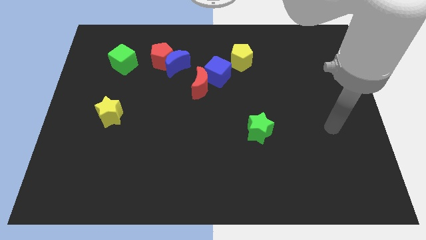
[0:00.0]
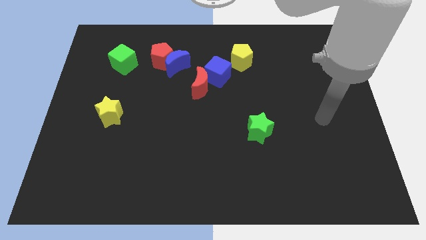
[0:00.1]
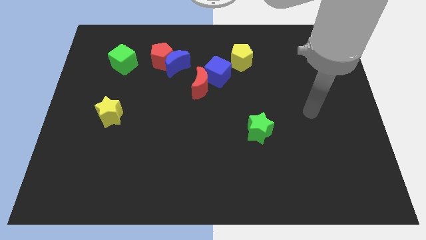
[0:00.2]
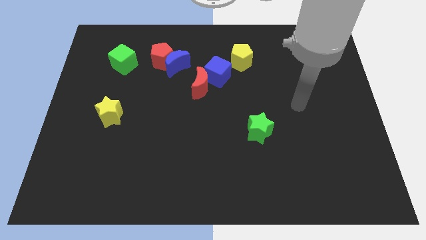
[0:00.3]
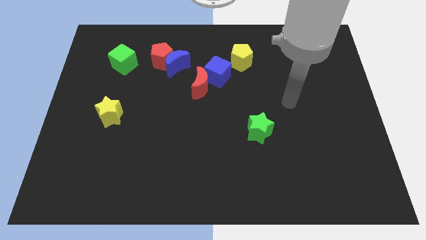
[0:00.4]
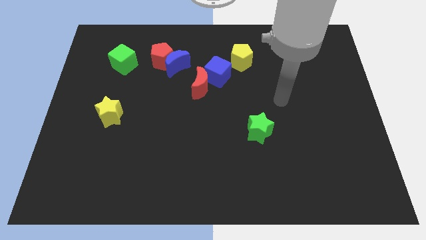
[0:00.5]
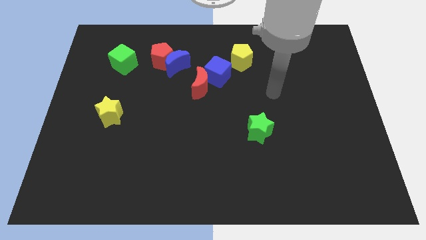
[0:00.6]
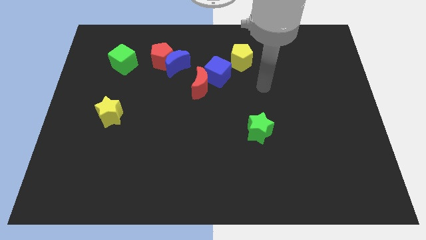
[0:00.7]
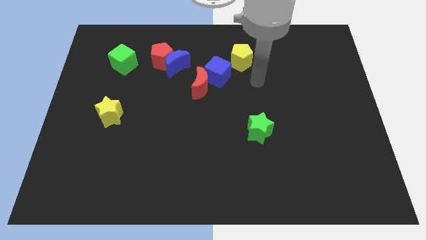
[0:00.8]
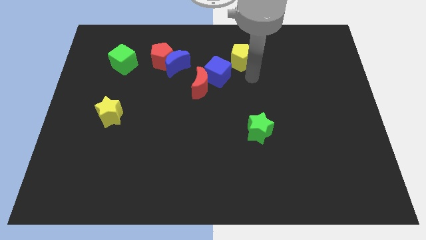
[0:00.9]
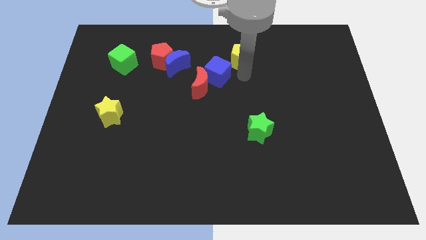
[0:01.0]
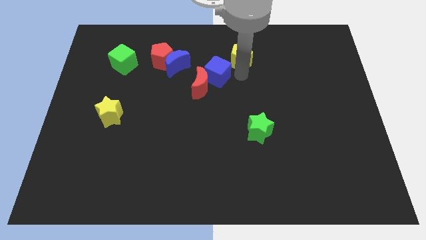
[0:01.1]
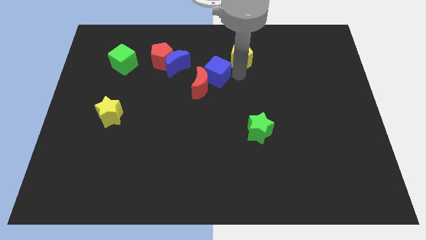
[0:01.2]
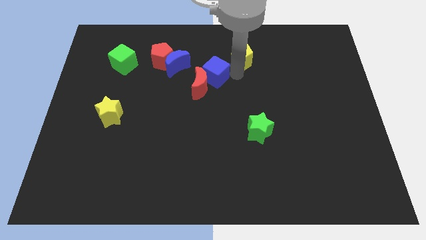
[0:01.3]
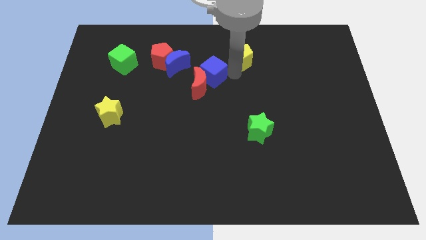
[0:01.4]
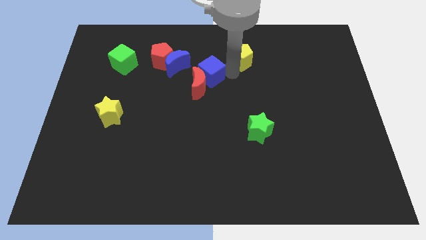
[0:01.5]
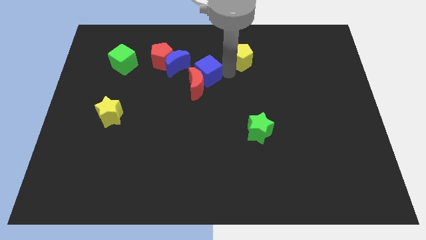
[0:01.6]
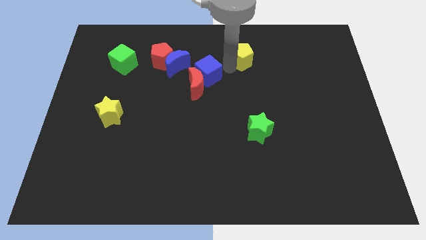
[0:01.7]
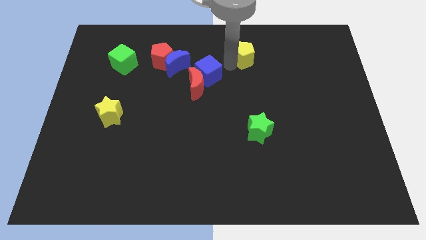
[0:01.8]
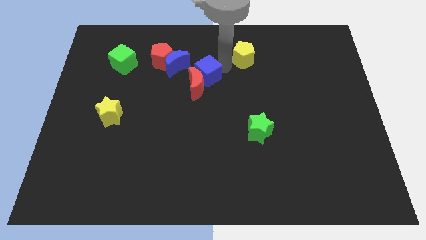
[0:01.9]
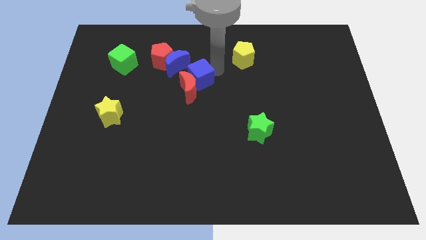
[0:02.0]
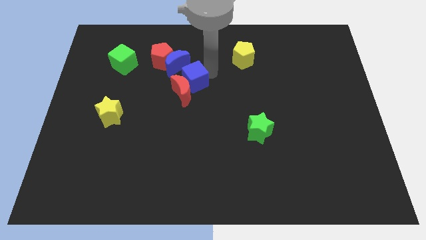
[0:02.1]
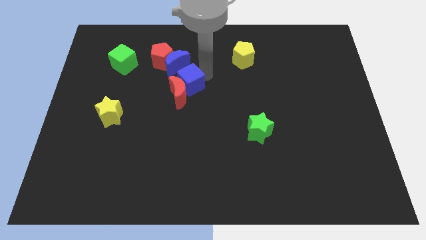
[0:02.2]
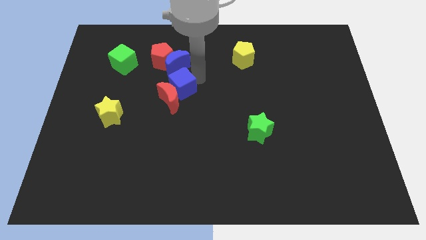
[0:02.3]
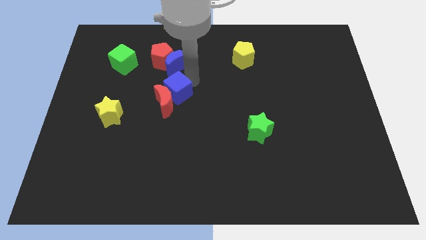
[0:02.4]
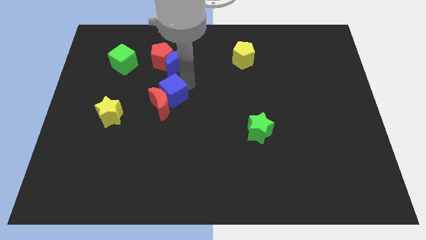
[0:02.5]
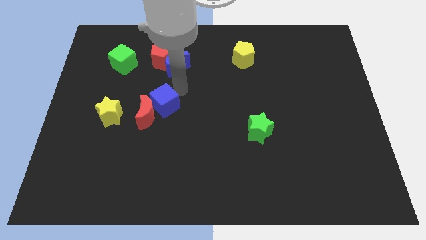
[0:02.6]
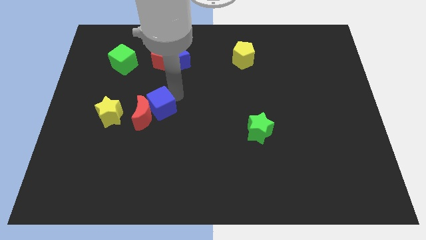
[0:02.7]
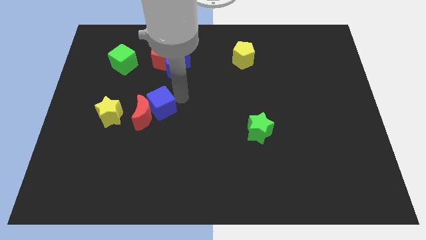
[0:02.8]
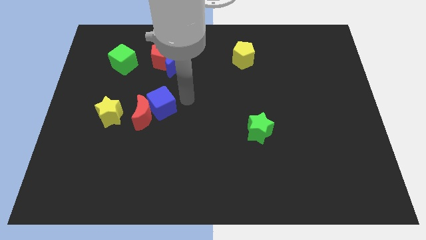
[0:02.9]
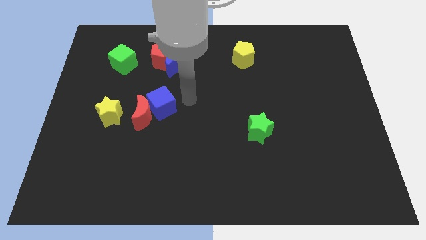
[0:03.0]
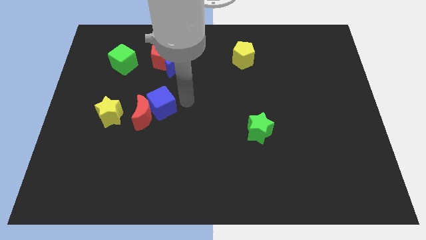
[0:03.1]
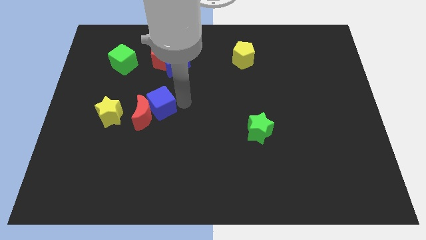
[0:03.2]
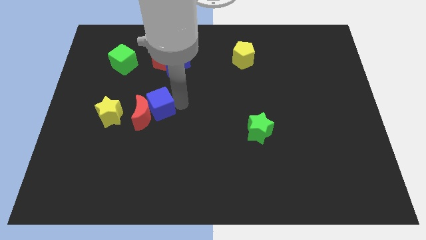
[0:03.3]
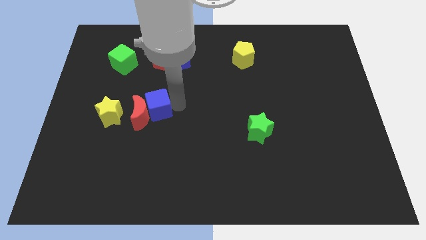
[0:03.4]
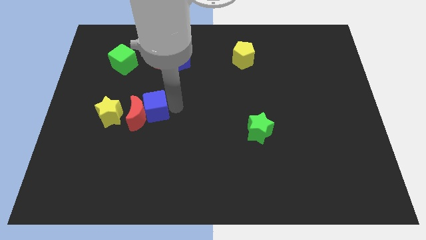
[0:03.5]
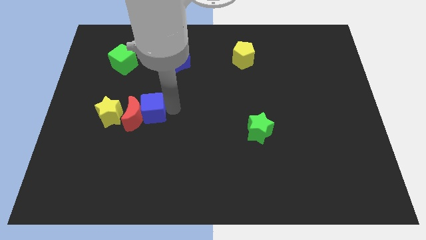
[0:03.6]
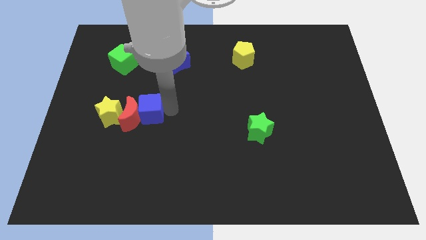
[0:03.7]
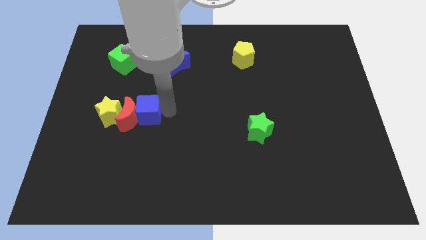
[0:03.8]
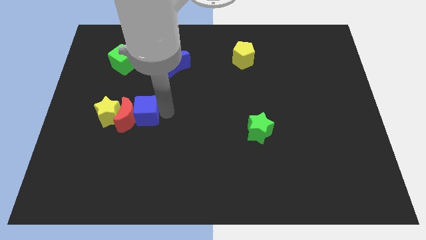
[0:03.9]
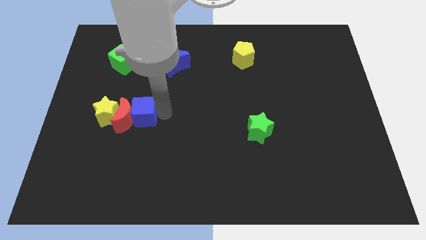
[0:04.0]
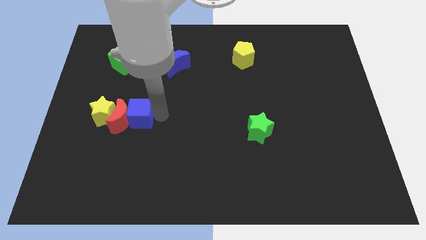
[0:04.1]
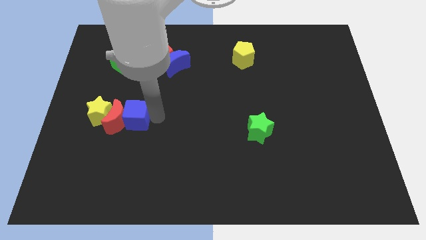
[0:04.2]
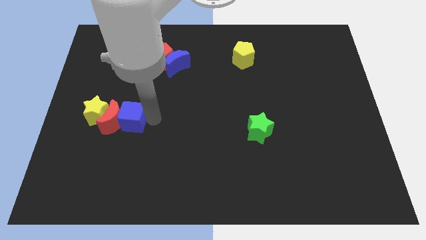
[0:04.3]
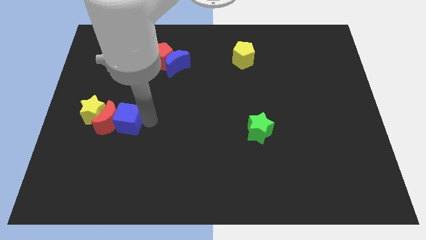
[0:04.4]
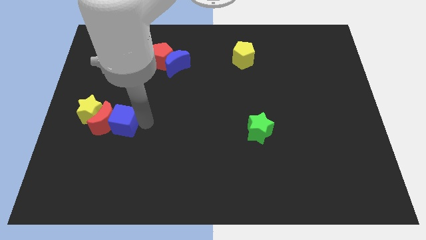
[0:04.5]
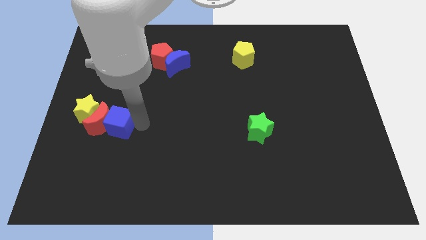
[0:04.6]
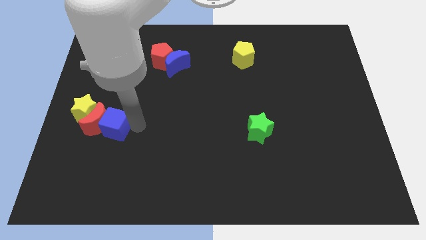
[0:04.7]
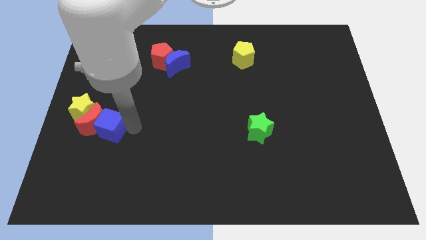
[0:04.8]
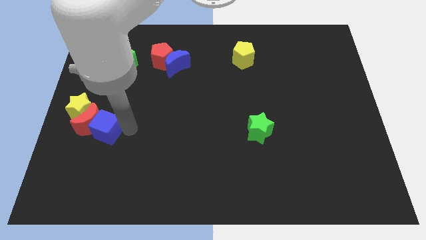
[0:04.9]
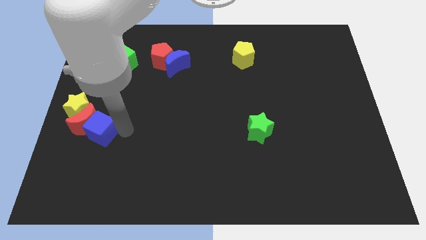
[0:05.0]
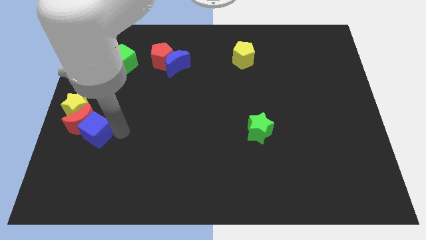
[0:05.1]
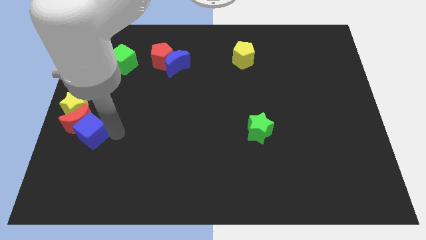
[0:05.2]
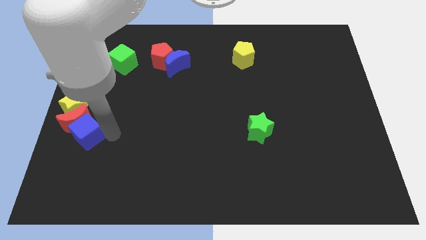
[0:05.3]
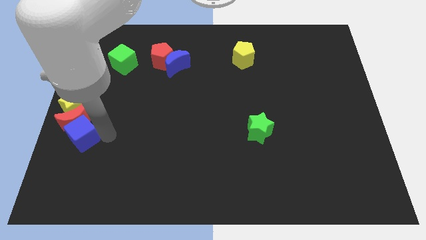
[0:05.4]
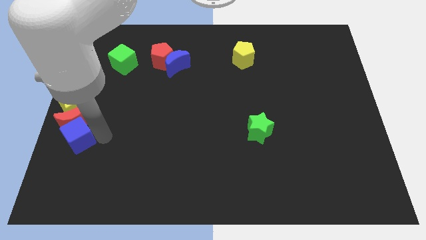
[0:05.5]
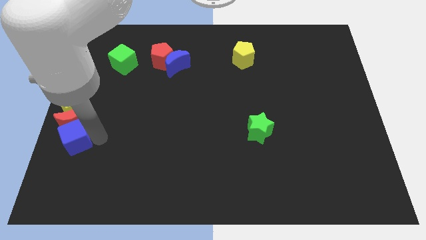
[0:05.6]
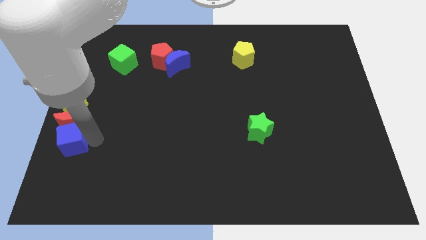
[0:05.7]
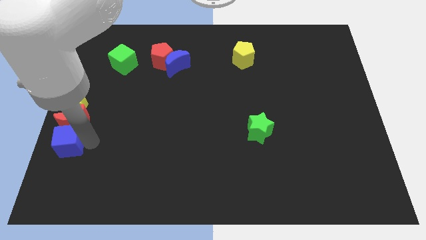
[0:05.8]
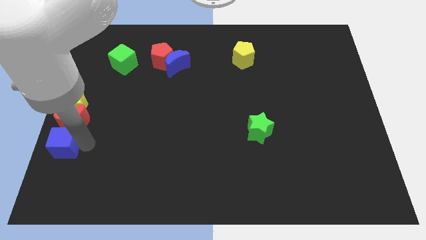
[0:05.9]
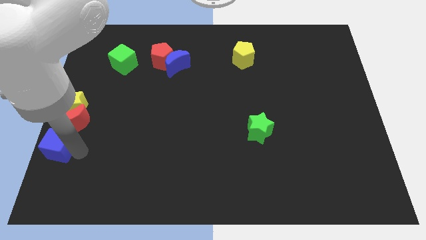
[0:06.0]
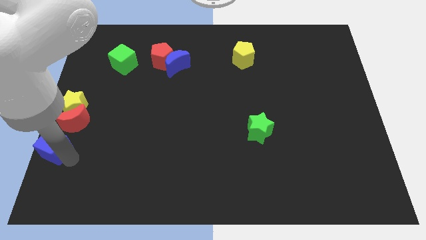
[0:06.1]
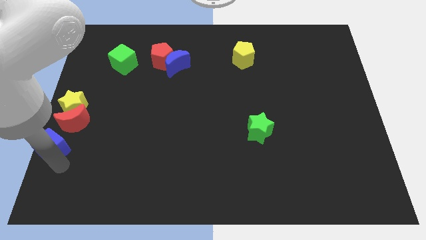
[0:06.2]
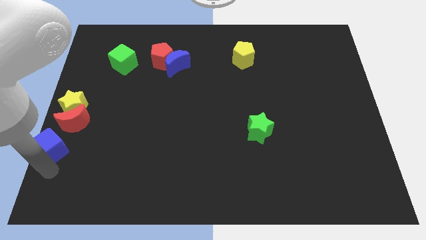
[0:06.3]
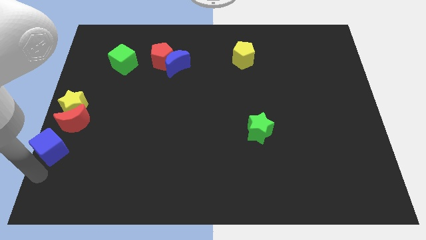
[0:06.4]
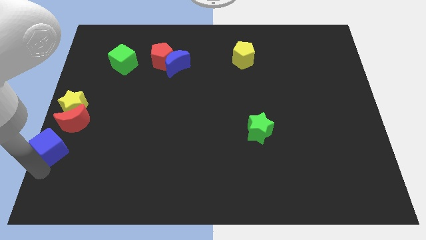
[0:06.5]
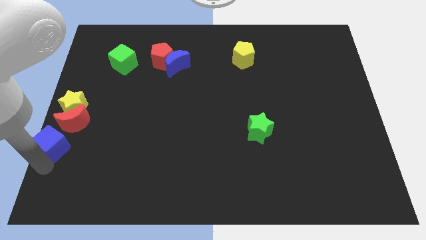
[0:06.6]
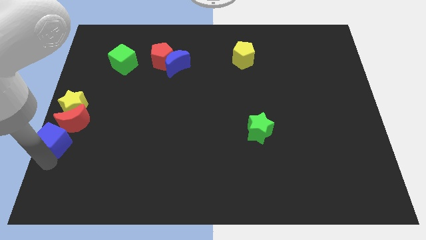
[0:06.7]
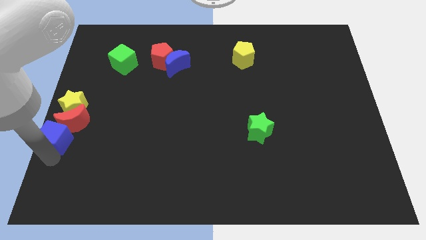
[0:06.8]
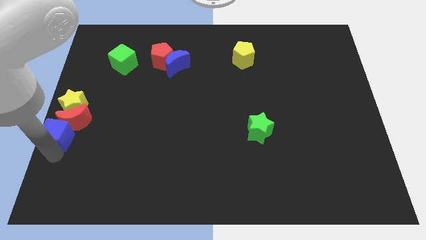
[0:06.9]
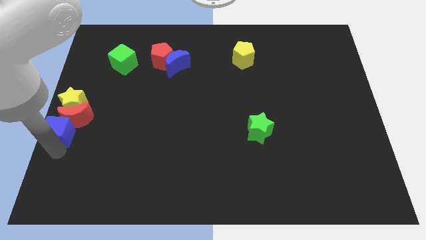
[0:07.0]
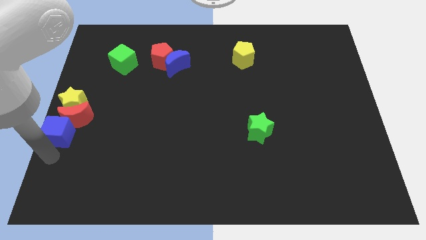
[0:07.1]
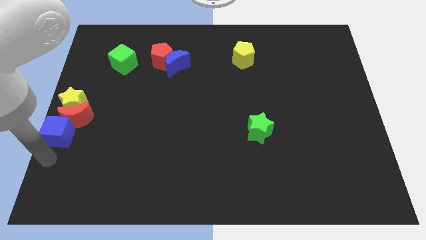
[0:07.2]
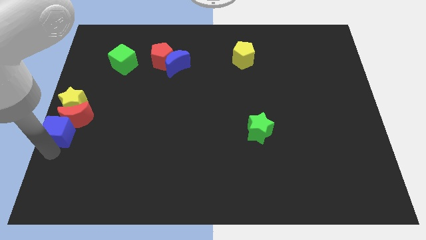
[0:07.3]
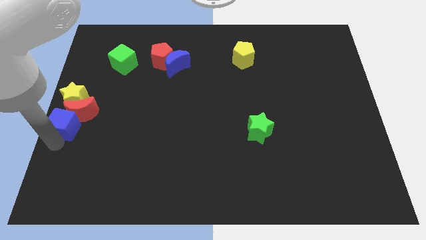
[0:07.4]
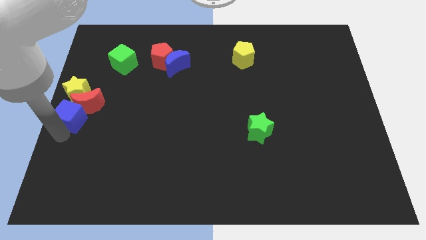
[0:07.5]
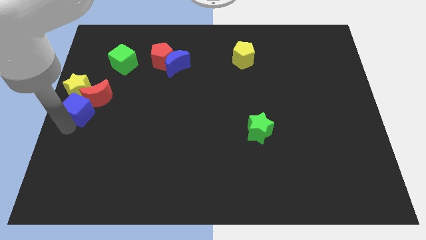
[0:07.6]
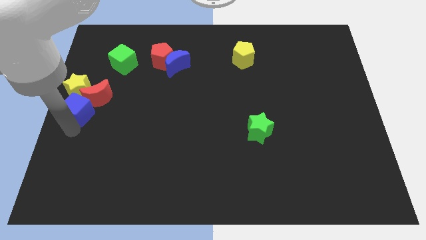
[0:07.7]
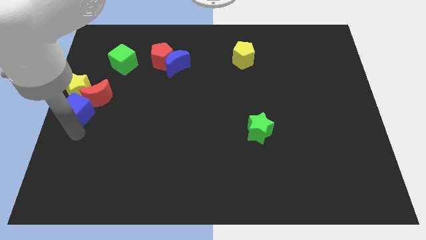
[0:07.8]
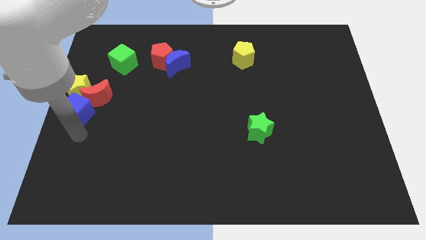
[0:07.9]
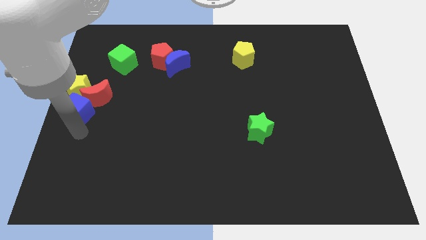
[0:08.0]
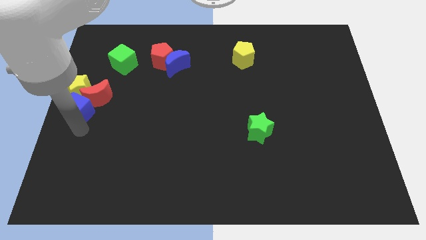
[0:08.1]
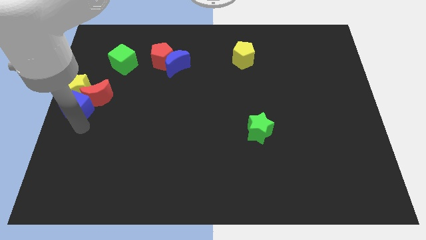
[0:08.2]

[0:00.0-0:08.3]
put the blue cube to the yellow star
